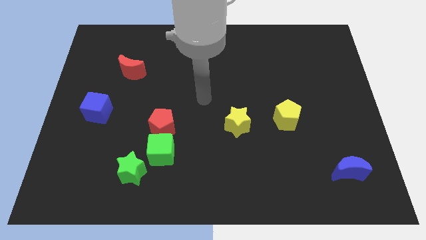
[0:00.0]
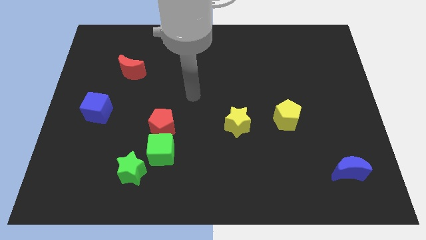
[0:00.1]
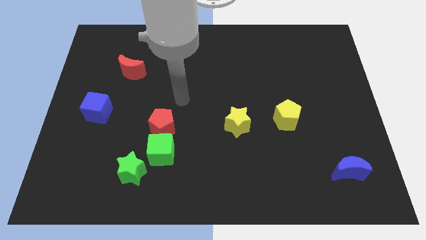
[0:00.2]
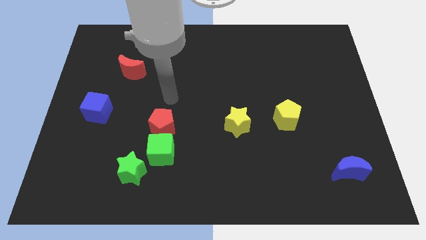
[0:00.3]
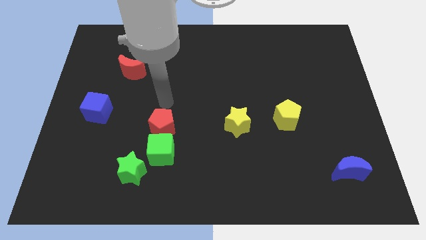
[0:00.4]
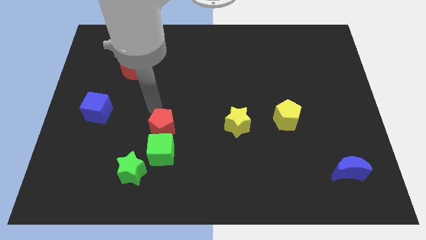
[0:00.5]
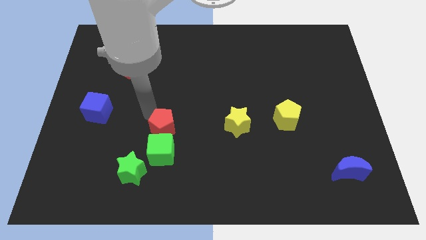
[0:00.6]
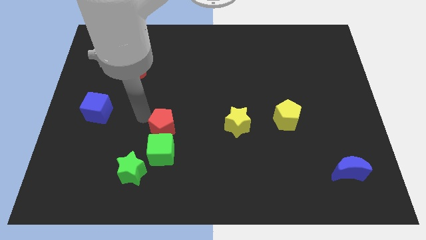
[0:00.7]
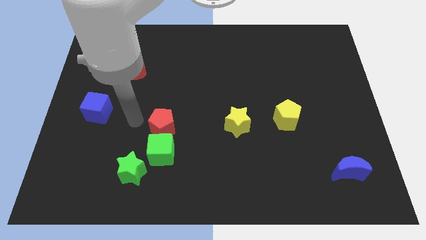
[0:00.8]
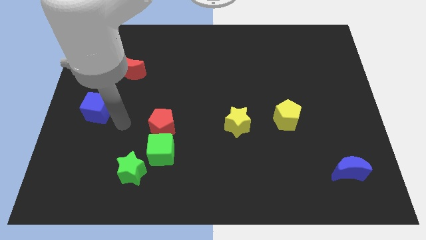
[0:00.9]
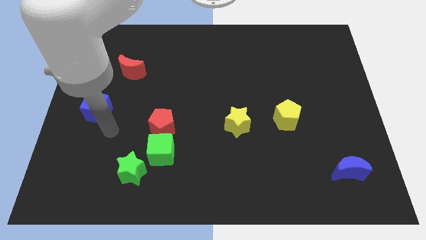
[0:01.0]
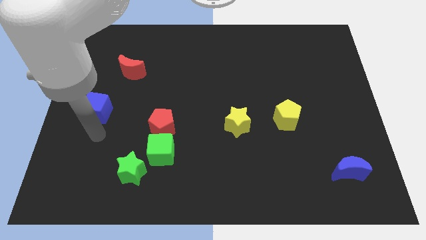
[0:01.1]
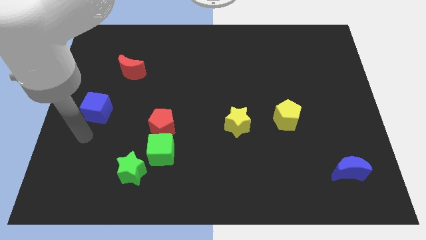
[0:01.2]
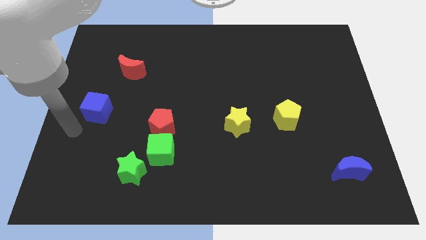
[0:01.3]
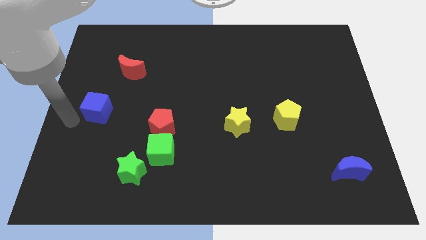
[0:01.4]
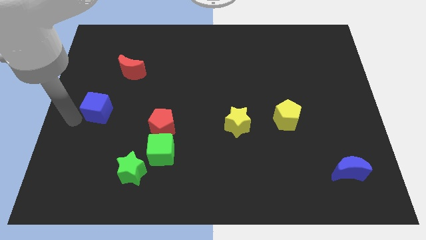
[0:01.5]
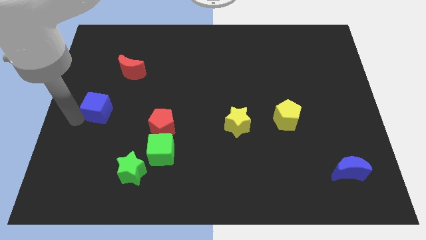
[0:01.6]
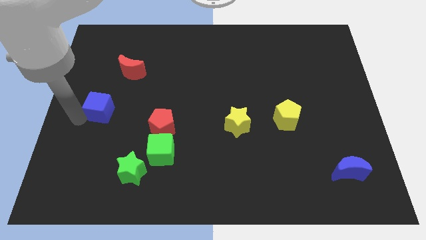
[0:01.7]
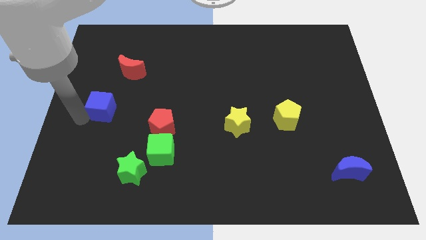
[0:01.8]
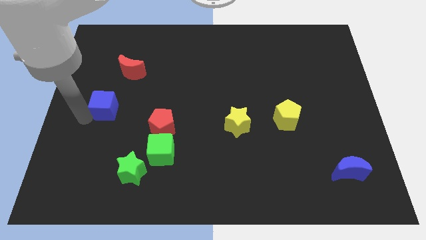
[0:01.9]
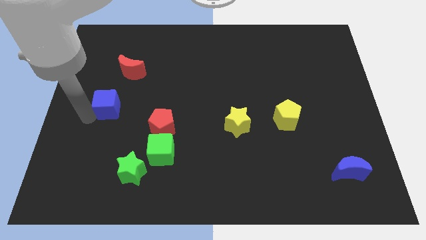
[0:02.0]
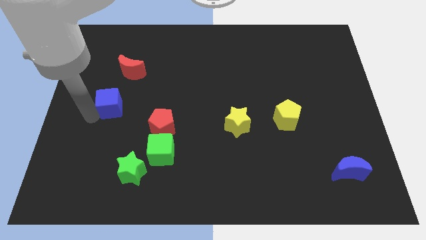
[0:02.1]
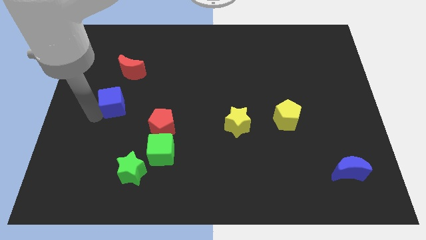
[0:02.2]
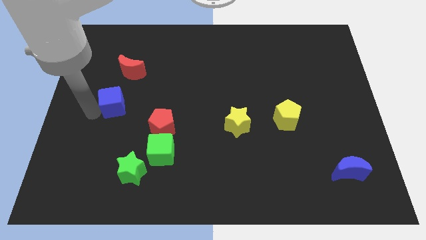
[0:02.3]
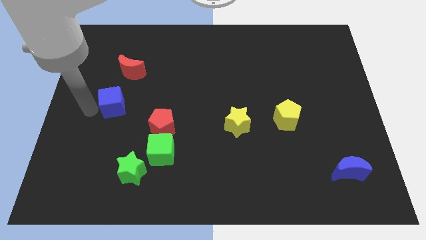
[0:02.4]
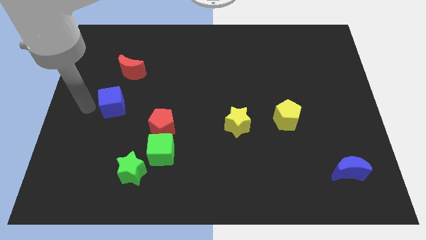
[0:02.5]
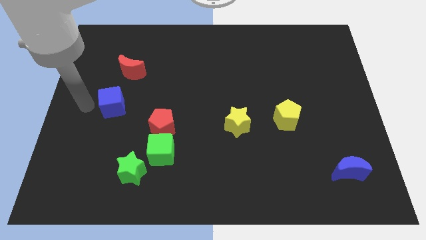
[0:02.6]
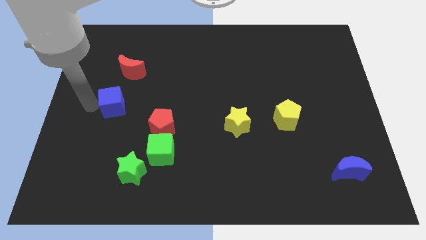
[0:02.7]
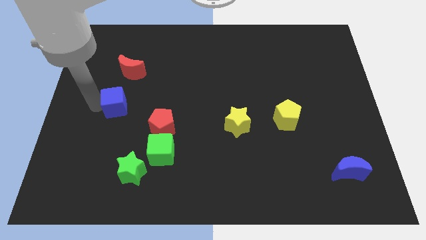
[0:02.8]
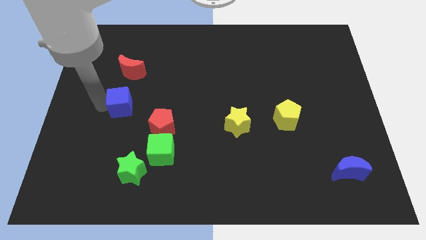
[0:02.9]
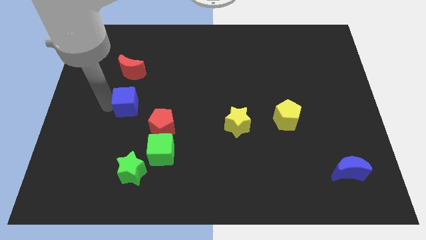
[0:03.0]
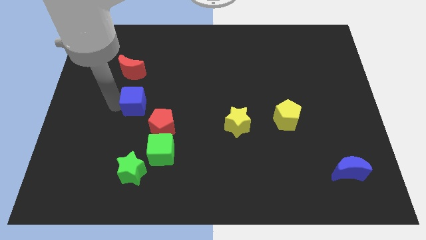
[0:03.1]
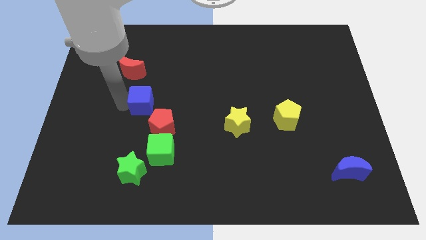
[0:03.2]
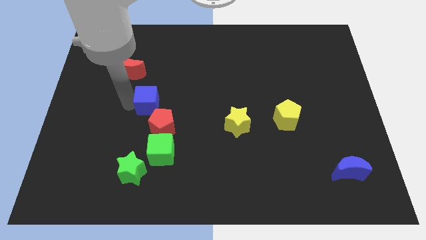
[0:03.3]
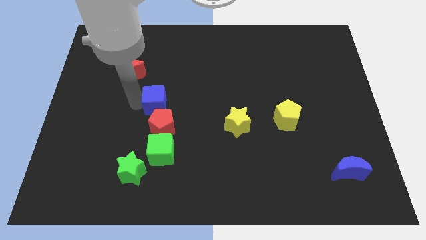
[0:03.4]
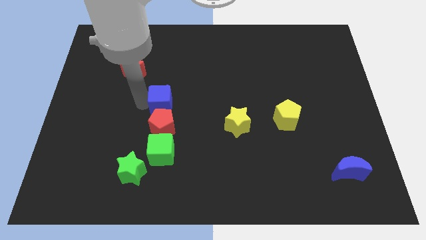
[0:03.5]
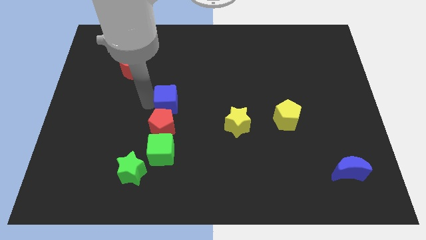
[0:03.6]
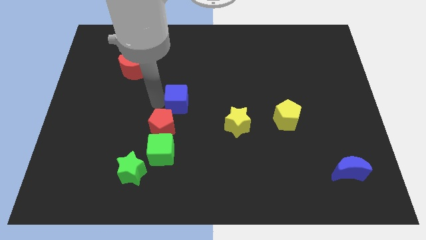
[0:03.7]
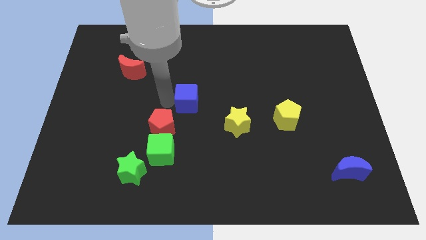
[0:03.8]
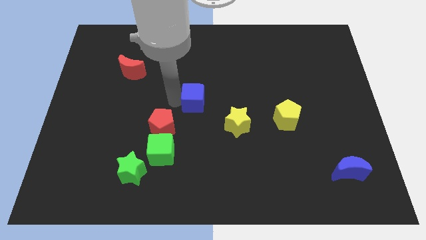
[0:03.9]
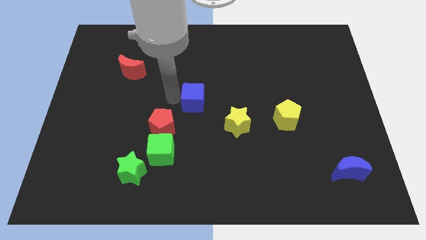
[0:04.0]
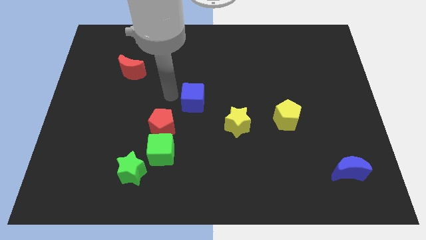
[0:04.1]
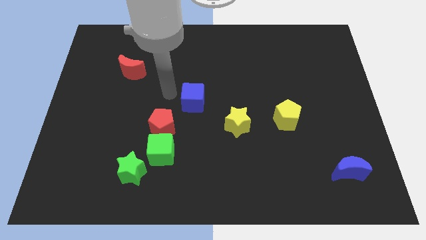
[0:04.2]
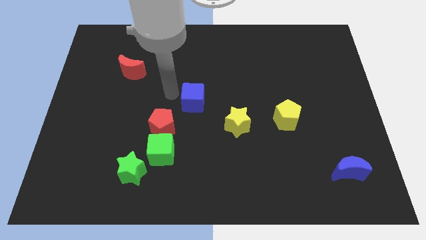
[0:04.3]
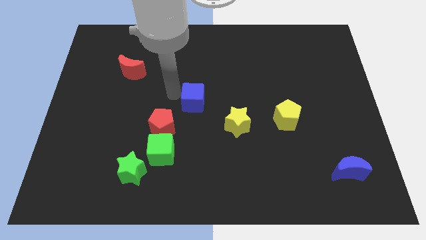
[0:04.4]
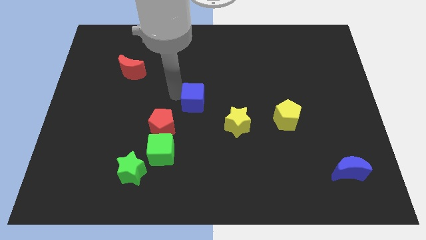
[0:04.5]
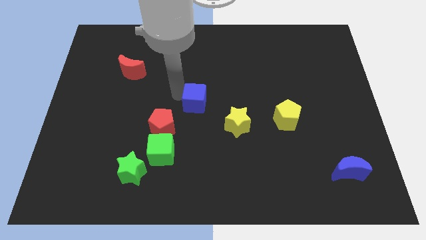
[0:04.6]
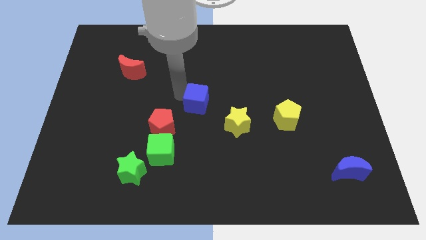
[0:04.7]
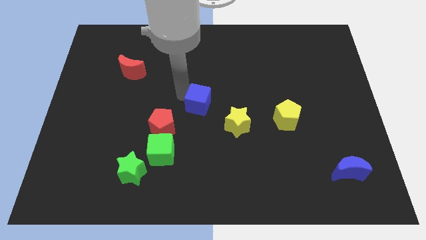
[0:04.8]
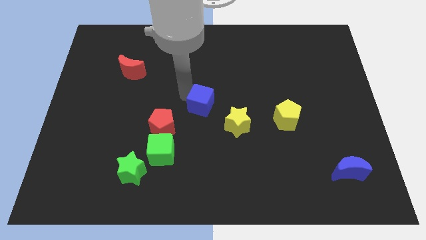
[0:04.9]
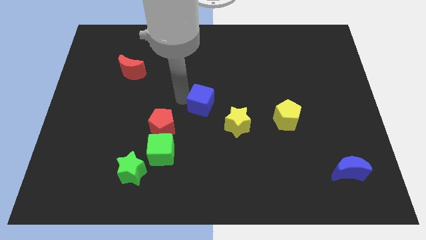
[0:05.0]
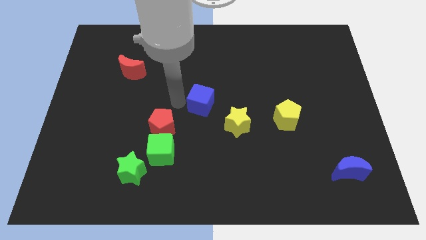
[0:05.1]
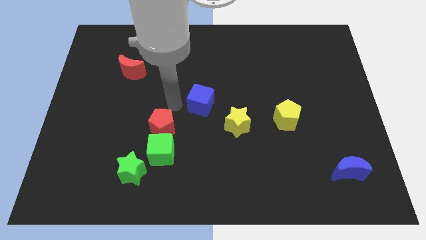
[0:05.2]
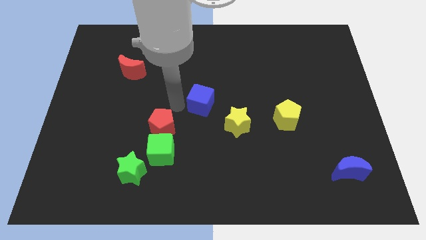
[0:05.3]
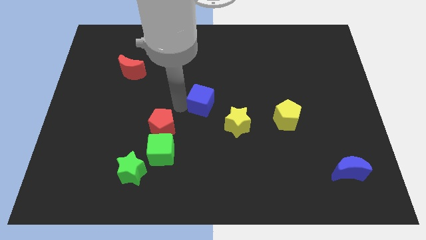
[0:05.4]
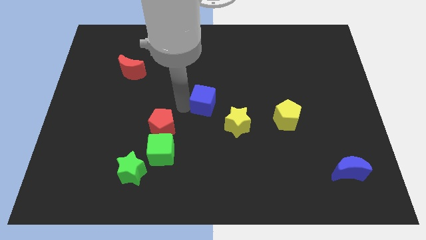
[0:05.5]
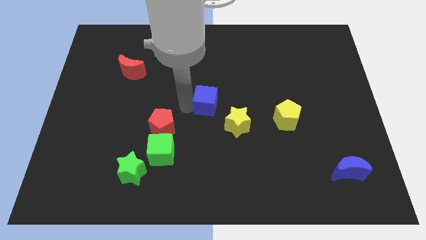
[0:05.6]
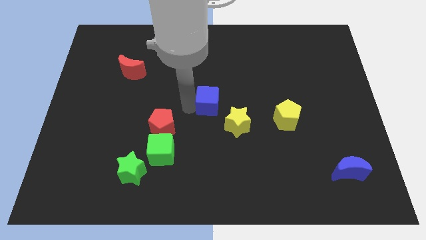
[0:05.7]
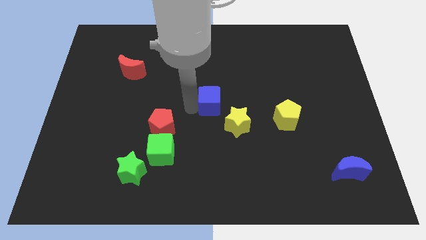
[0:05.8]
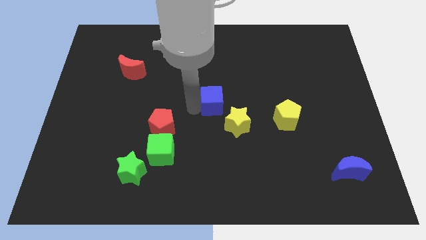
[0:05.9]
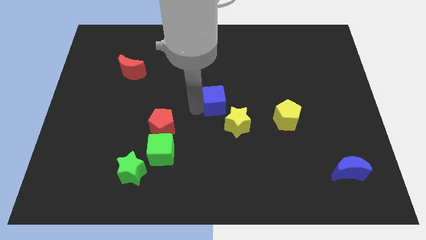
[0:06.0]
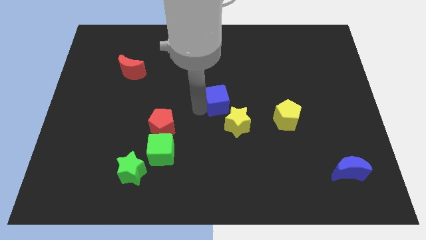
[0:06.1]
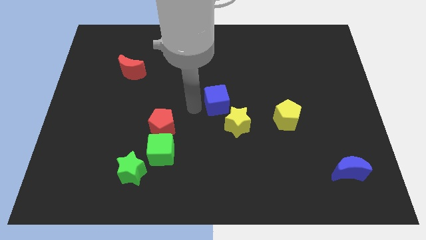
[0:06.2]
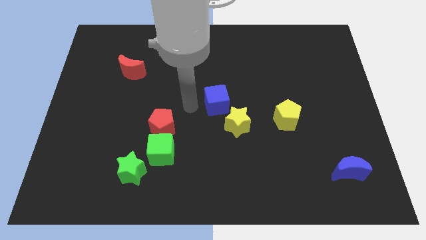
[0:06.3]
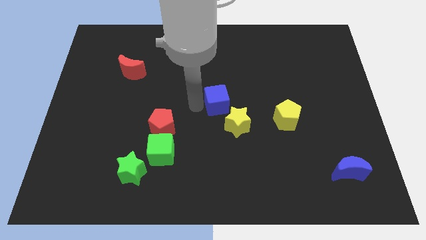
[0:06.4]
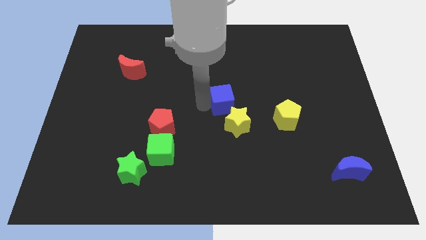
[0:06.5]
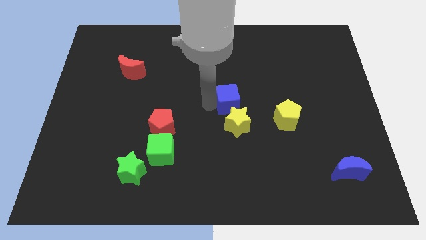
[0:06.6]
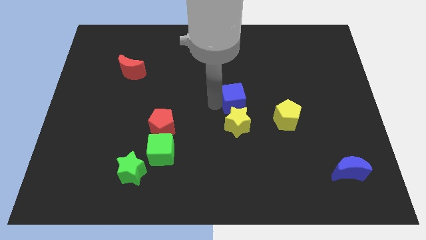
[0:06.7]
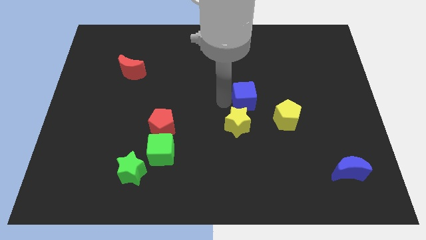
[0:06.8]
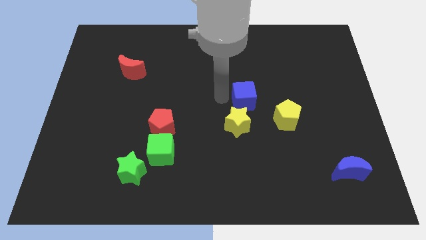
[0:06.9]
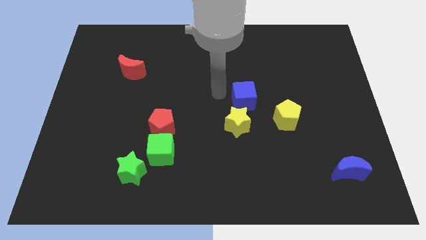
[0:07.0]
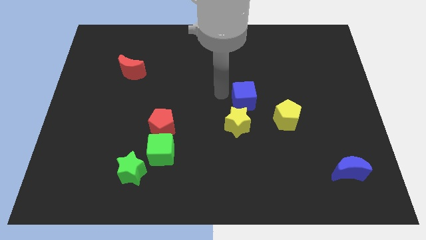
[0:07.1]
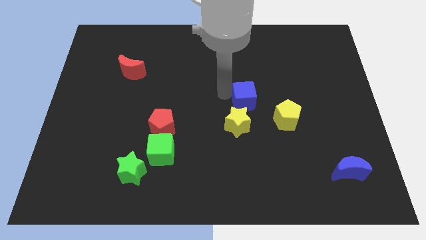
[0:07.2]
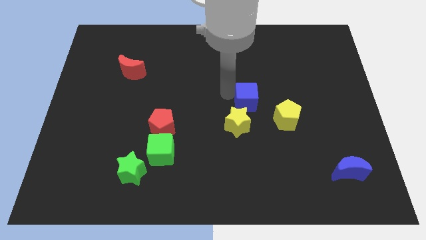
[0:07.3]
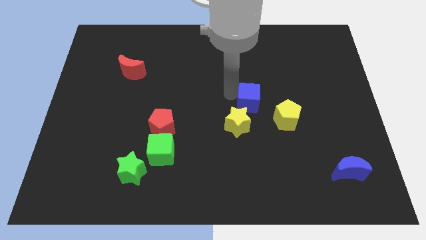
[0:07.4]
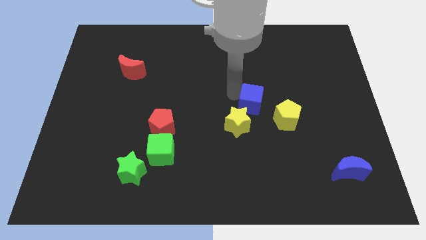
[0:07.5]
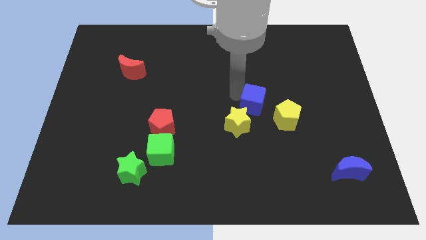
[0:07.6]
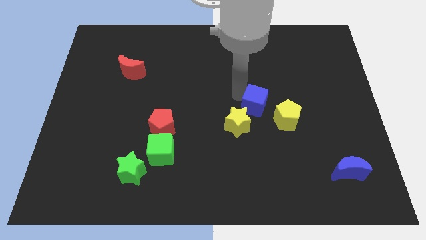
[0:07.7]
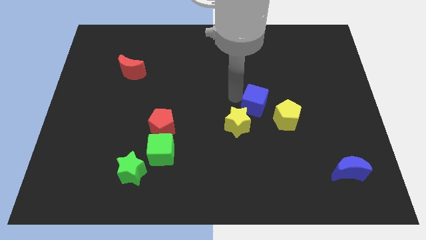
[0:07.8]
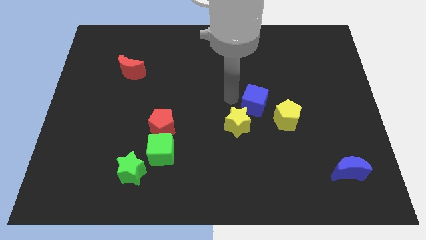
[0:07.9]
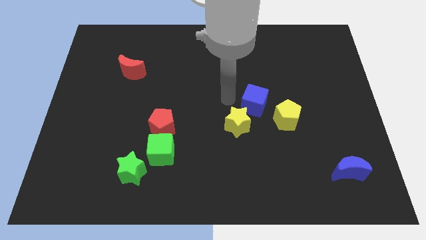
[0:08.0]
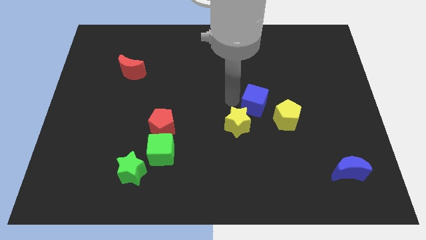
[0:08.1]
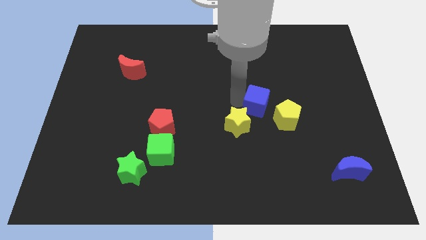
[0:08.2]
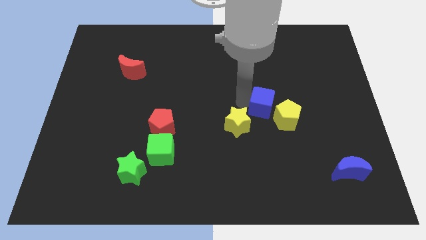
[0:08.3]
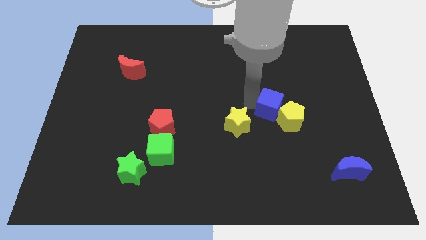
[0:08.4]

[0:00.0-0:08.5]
move the blue cube to the yellow pentagon
